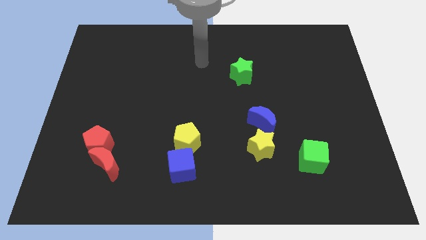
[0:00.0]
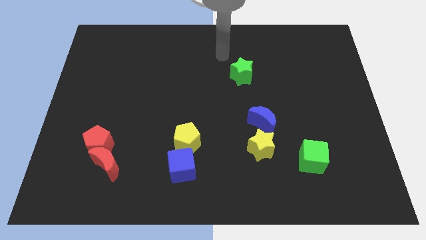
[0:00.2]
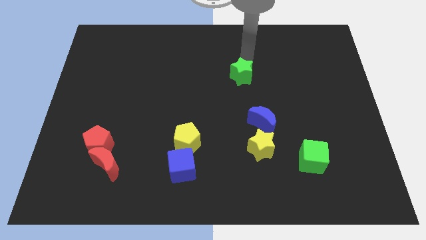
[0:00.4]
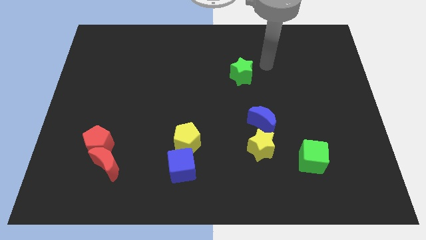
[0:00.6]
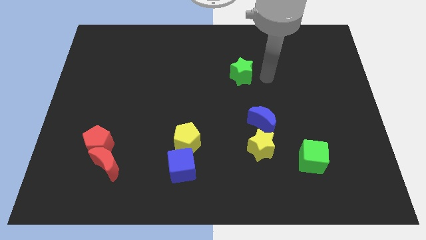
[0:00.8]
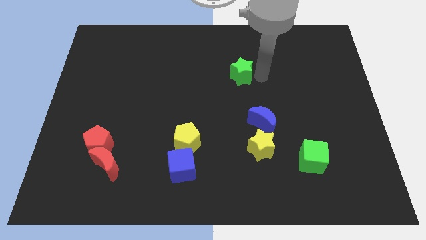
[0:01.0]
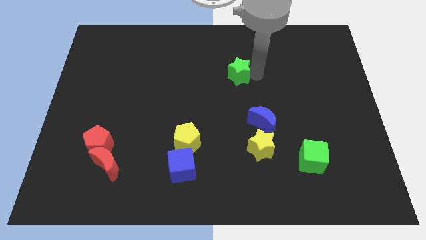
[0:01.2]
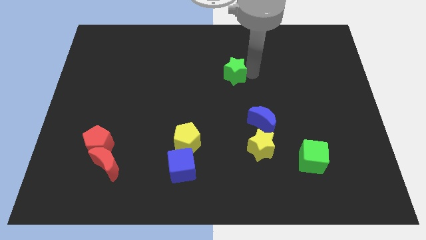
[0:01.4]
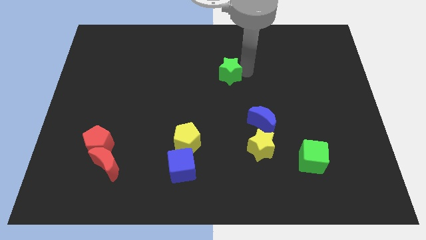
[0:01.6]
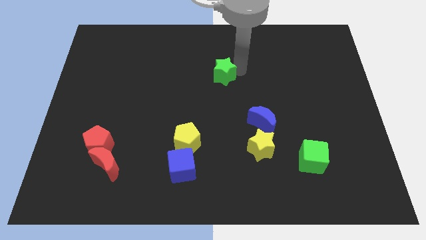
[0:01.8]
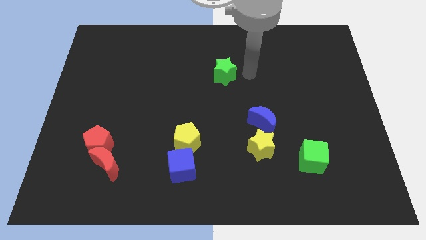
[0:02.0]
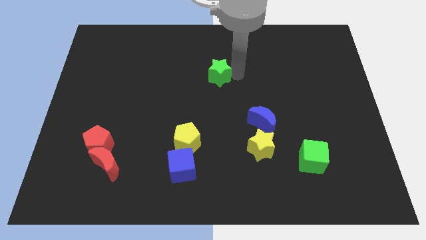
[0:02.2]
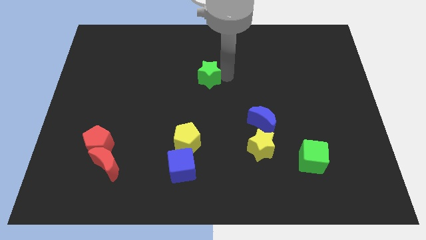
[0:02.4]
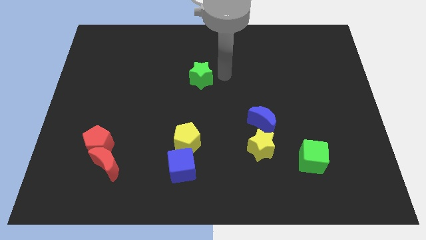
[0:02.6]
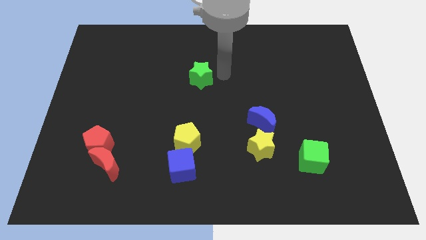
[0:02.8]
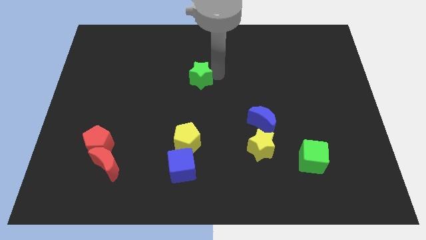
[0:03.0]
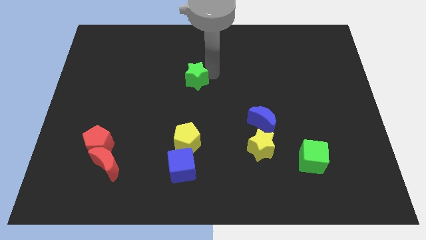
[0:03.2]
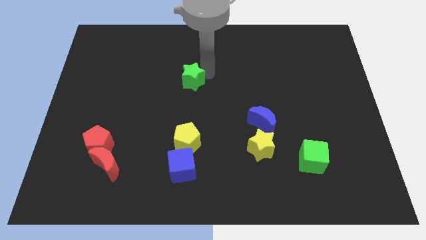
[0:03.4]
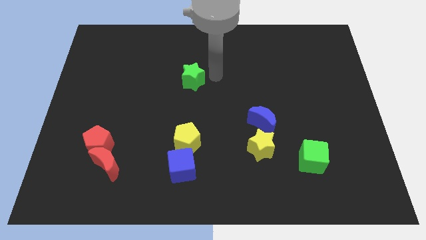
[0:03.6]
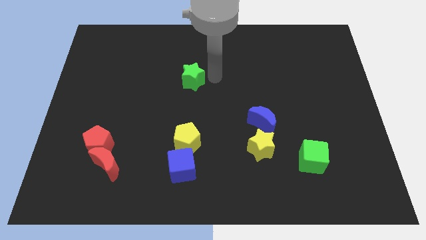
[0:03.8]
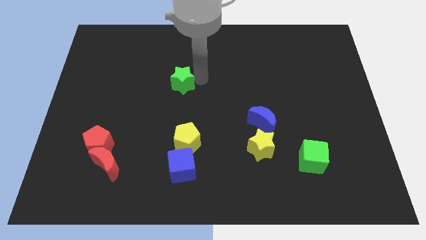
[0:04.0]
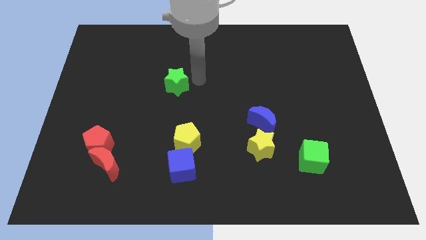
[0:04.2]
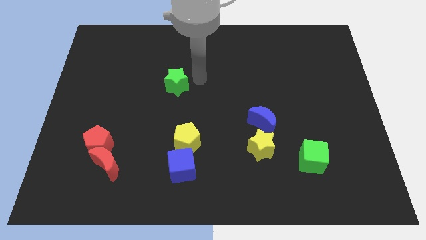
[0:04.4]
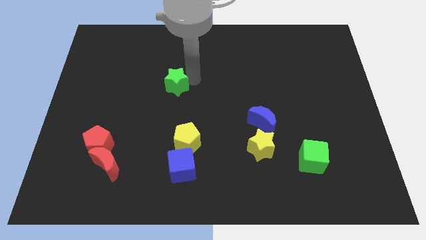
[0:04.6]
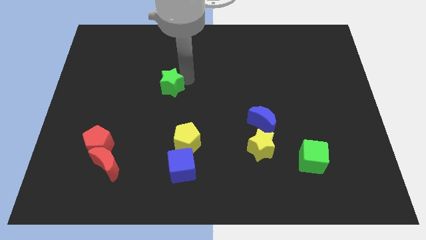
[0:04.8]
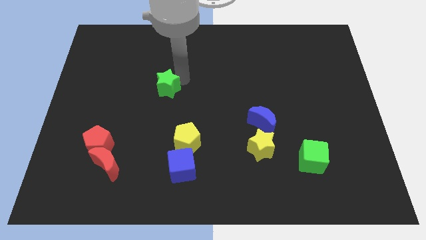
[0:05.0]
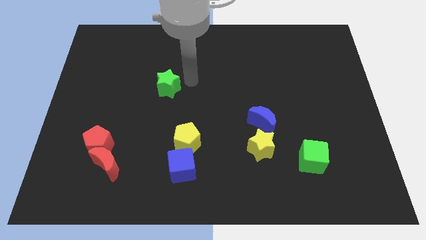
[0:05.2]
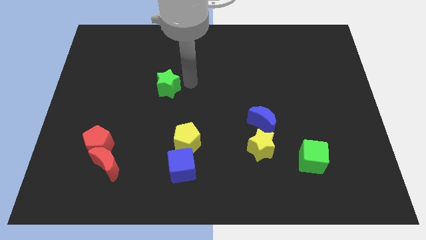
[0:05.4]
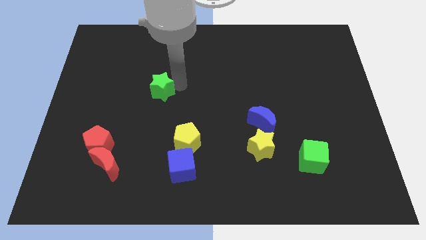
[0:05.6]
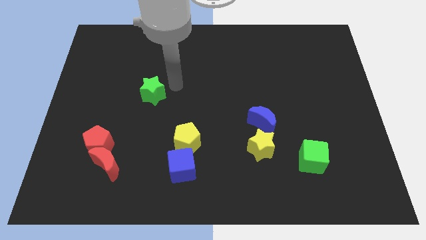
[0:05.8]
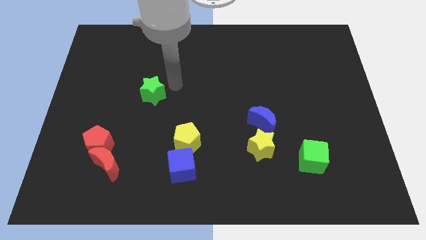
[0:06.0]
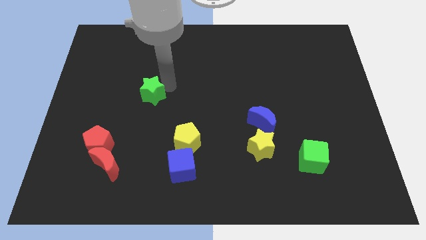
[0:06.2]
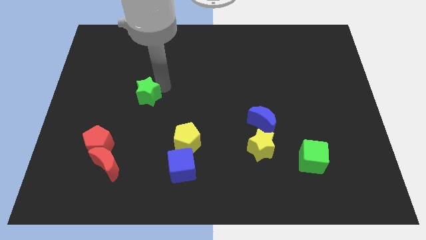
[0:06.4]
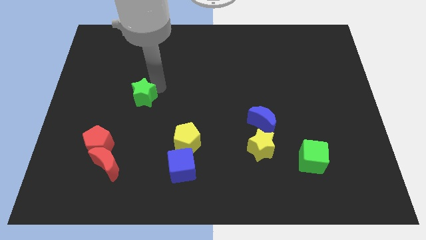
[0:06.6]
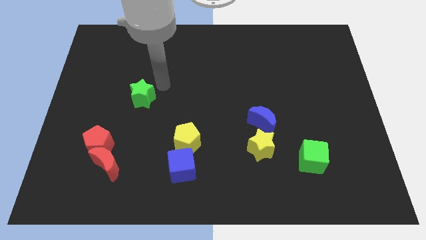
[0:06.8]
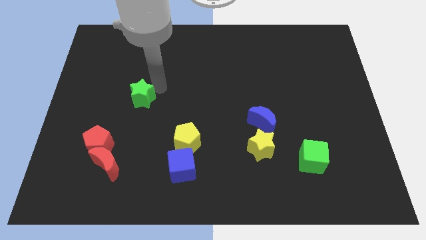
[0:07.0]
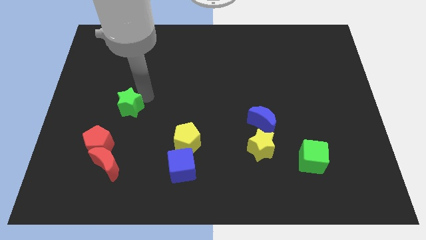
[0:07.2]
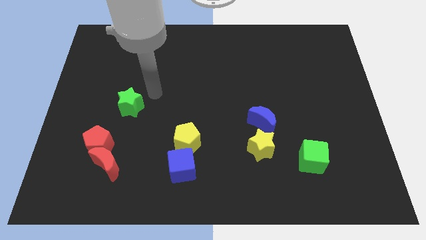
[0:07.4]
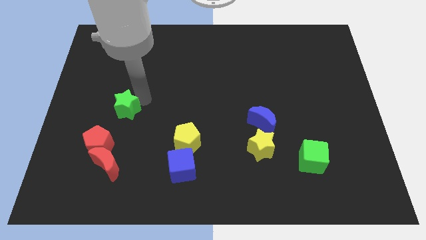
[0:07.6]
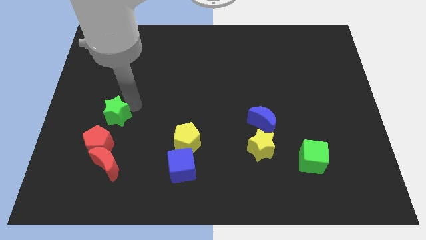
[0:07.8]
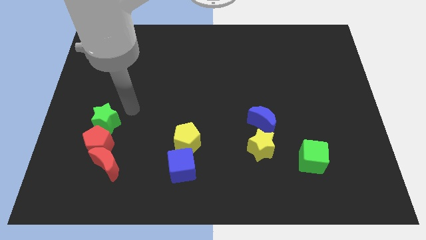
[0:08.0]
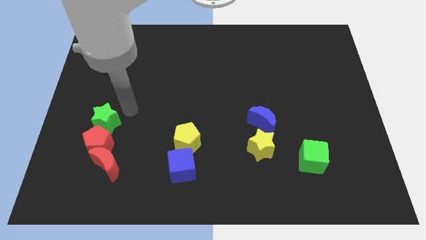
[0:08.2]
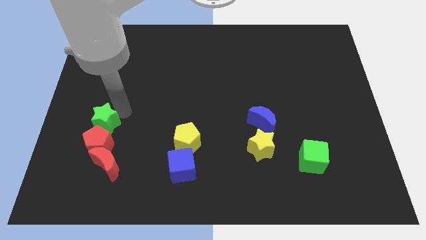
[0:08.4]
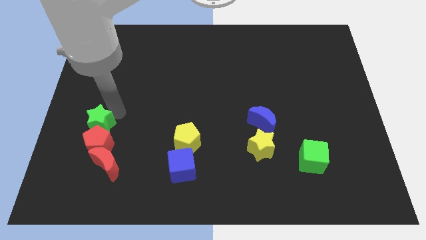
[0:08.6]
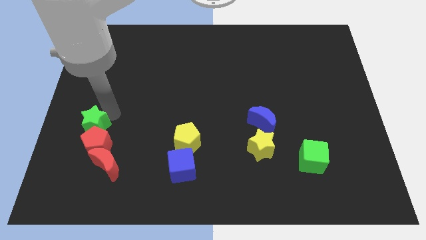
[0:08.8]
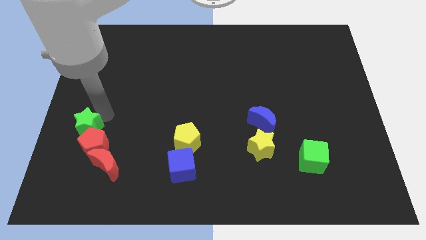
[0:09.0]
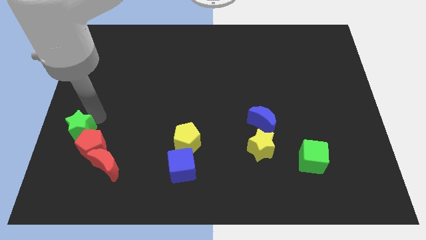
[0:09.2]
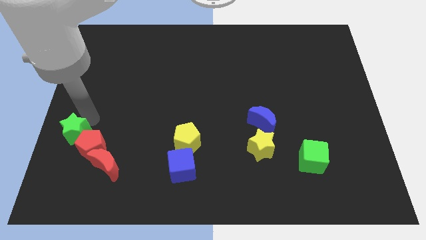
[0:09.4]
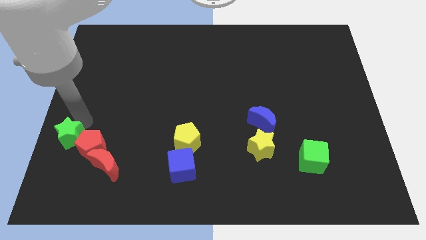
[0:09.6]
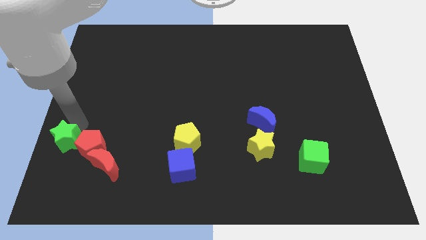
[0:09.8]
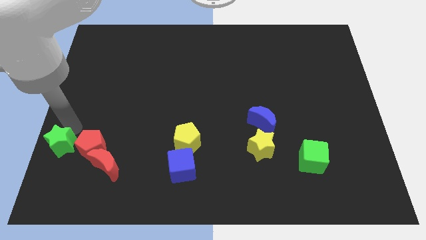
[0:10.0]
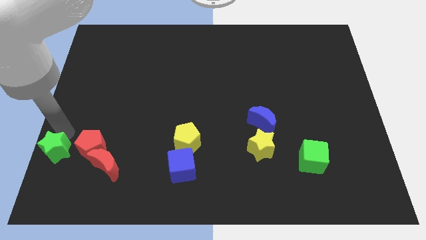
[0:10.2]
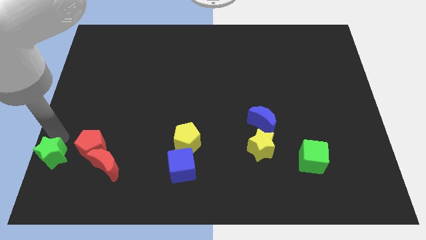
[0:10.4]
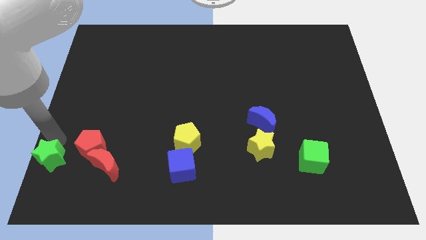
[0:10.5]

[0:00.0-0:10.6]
move the green star to the bottom left

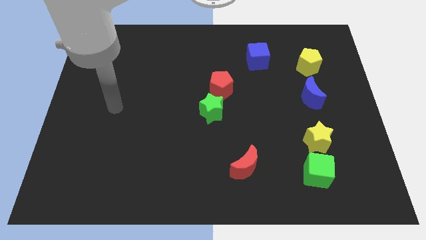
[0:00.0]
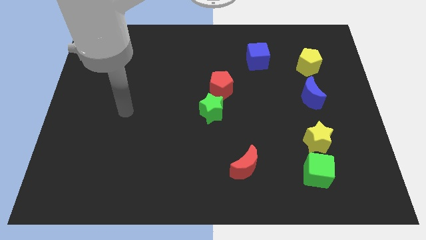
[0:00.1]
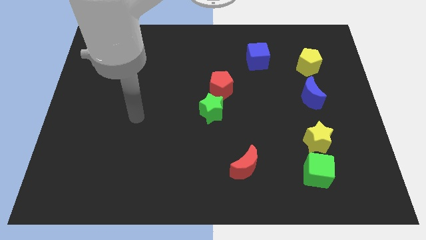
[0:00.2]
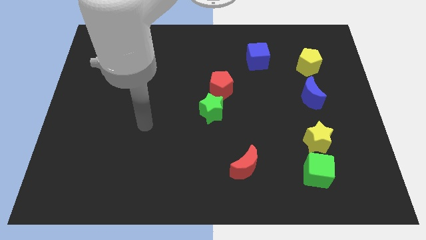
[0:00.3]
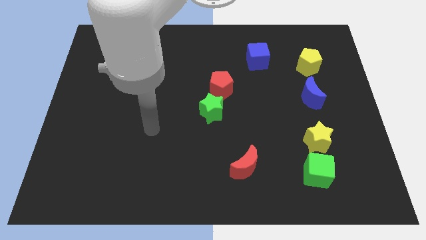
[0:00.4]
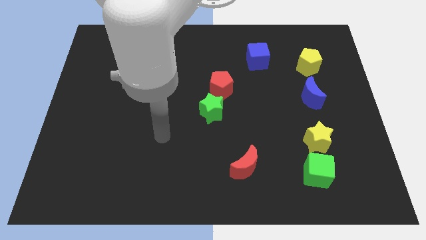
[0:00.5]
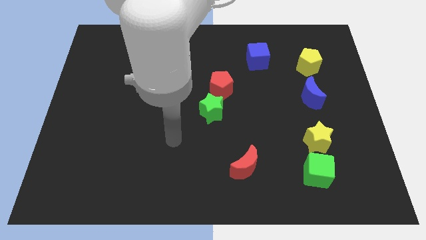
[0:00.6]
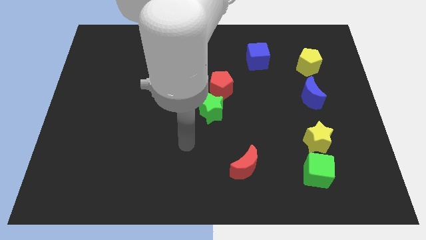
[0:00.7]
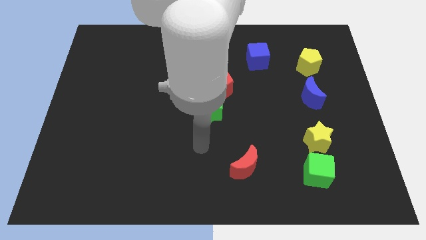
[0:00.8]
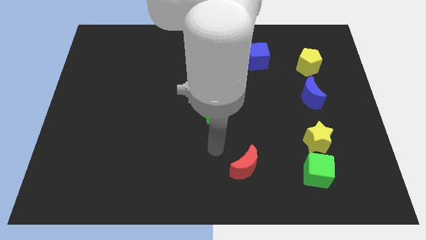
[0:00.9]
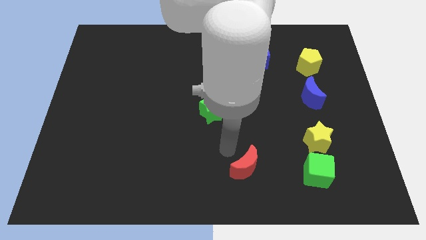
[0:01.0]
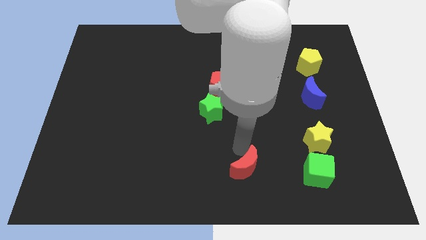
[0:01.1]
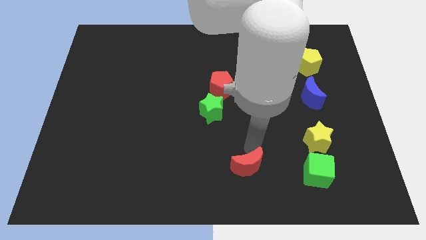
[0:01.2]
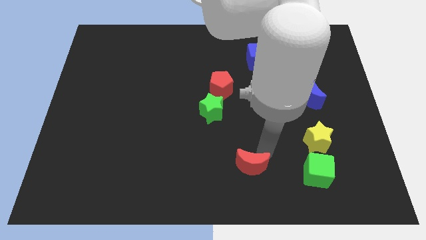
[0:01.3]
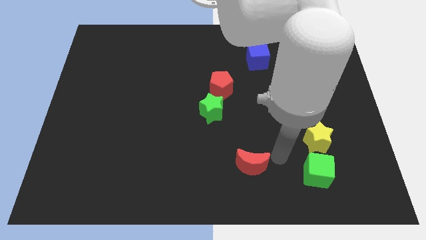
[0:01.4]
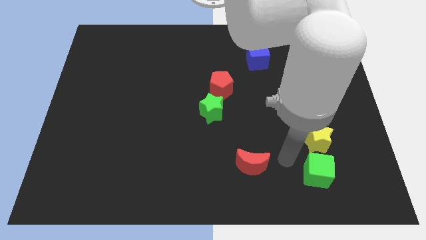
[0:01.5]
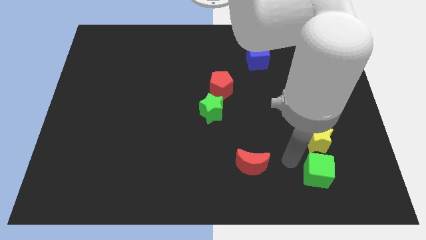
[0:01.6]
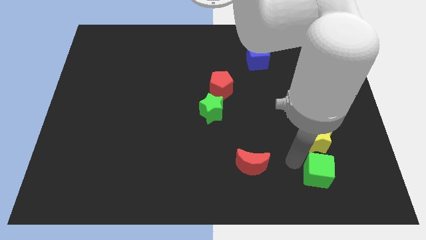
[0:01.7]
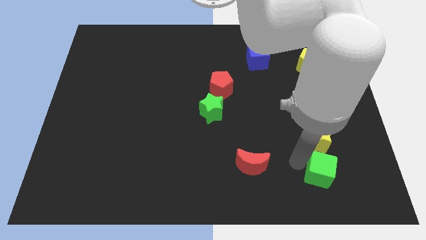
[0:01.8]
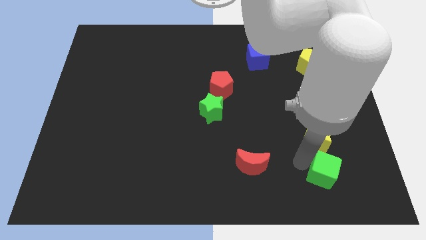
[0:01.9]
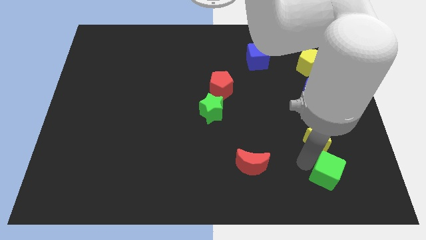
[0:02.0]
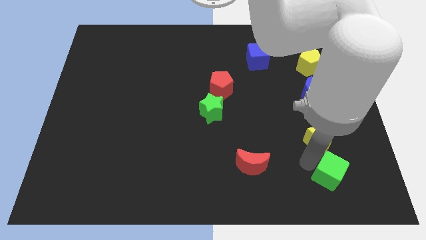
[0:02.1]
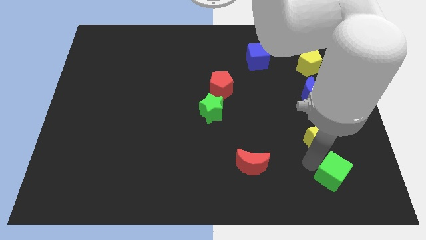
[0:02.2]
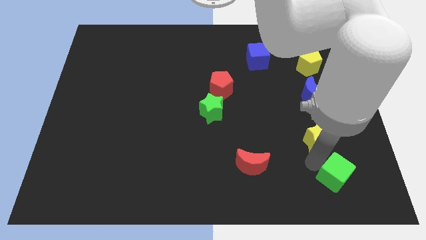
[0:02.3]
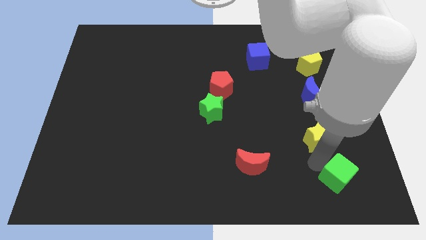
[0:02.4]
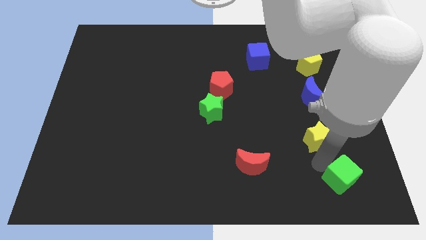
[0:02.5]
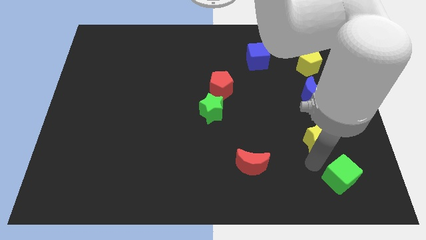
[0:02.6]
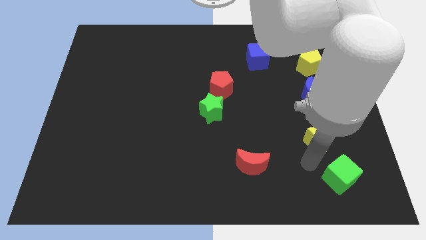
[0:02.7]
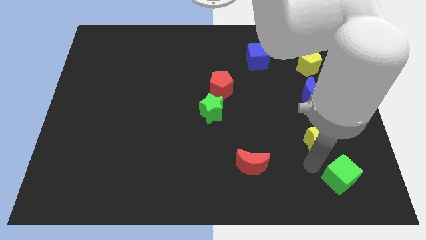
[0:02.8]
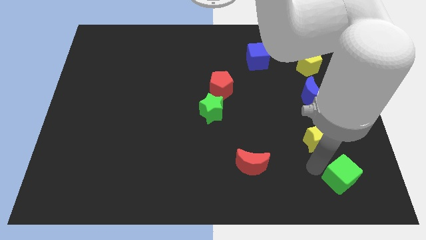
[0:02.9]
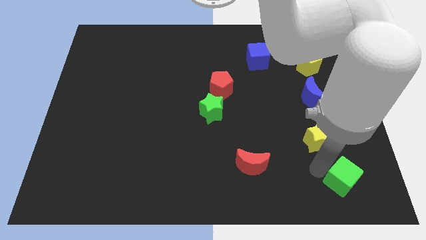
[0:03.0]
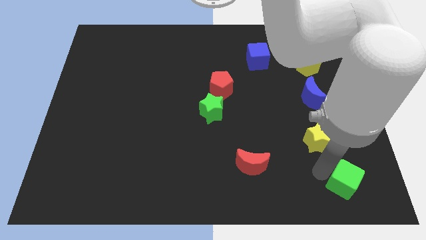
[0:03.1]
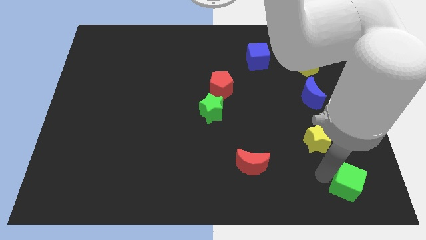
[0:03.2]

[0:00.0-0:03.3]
move the green cube to the bottom right corner
